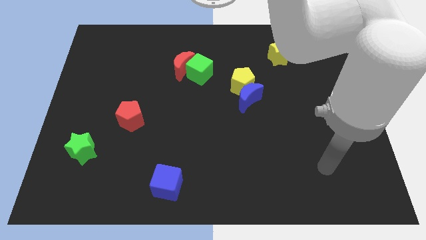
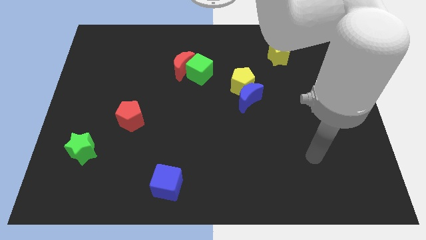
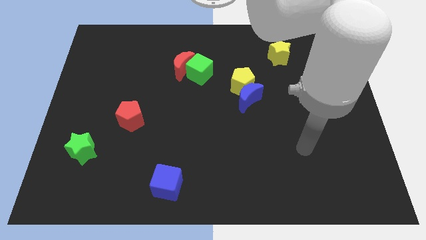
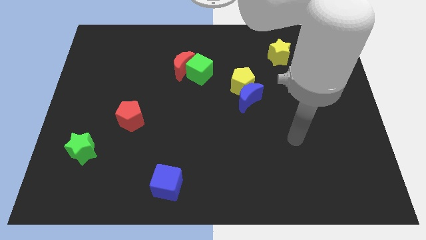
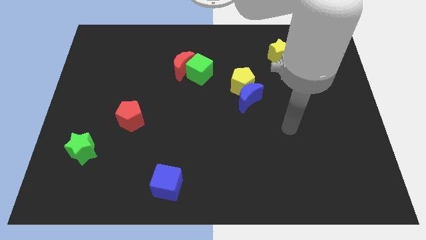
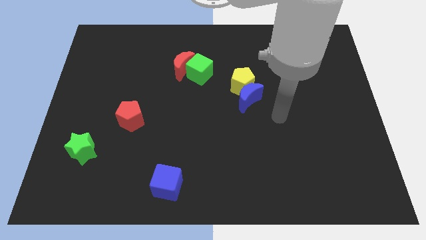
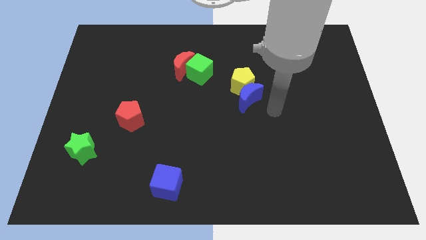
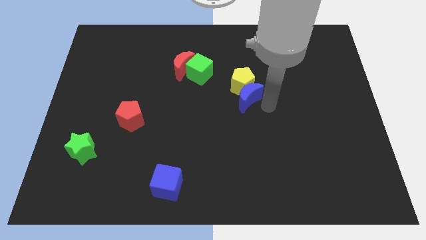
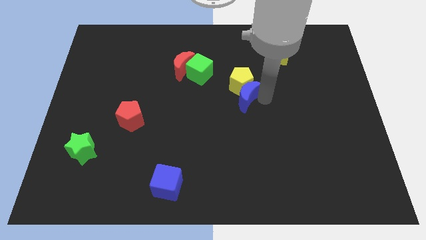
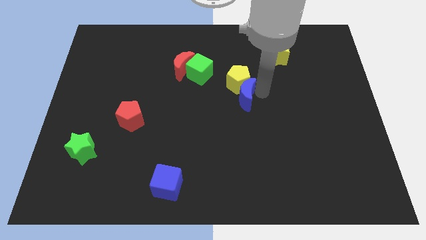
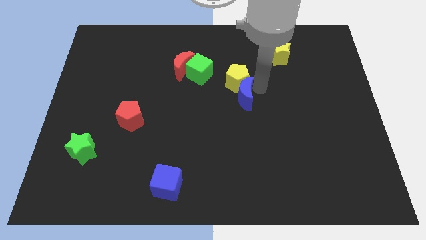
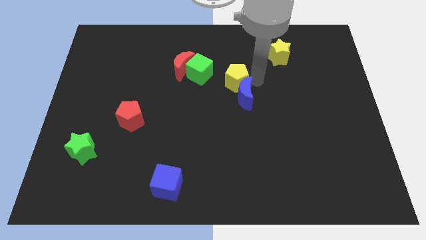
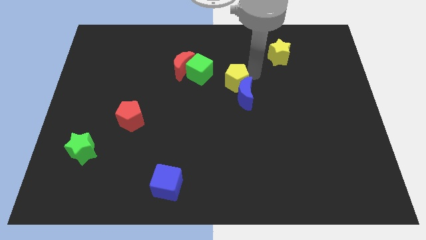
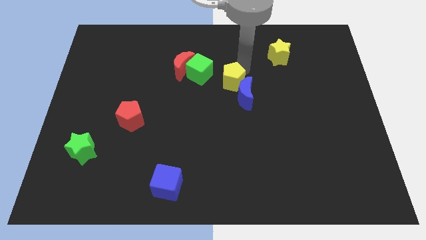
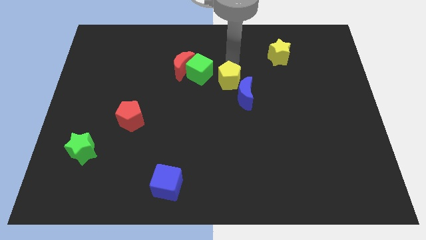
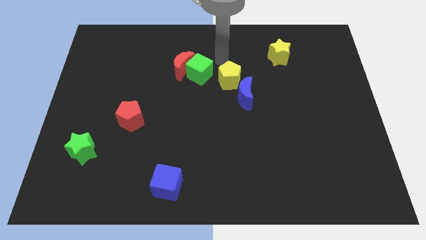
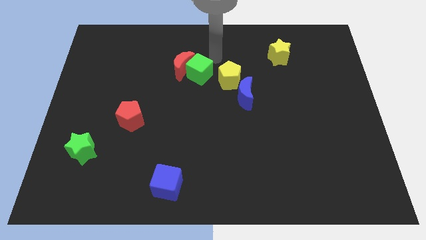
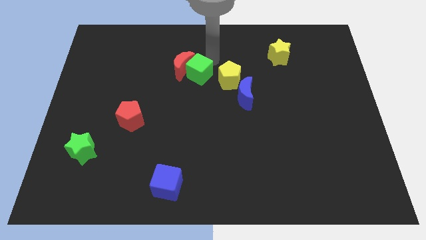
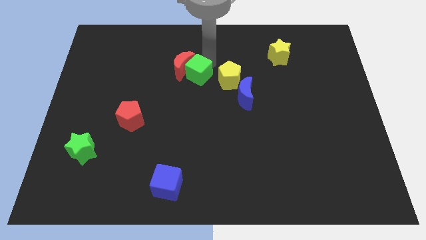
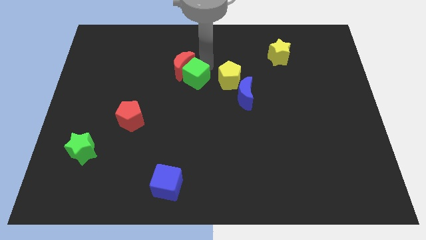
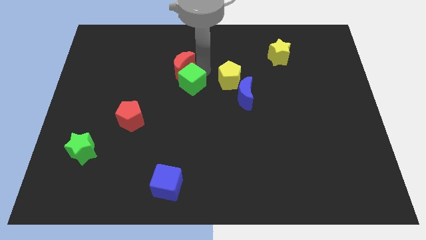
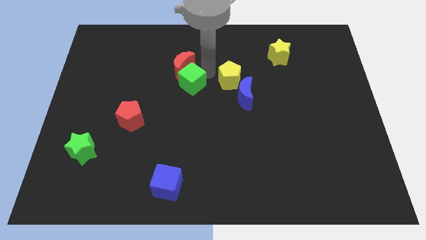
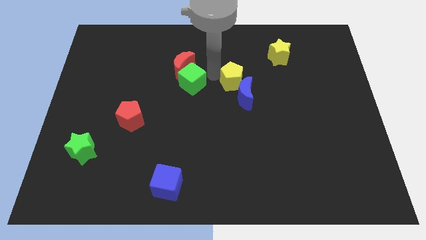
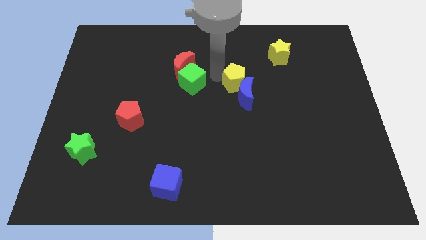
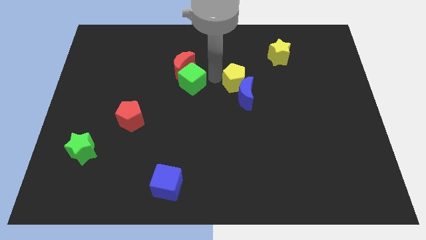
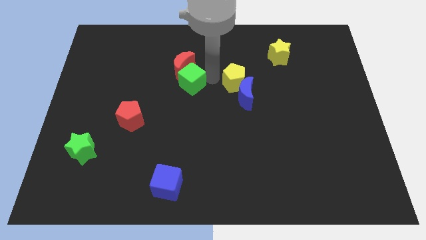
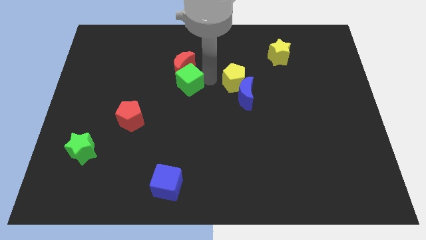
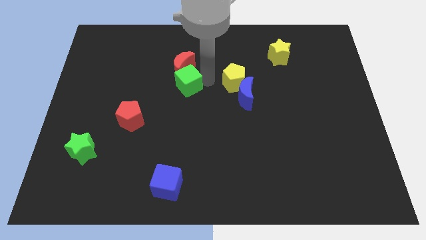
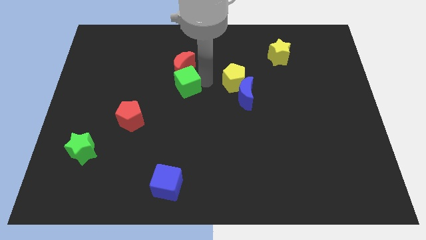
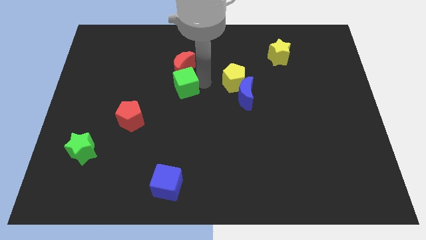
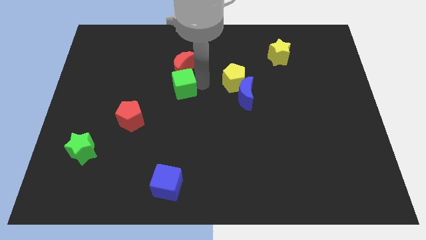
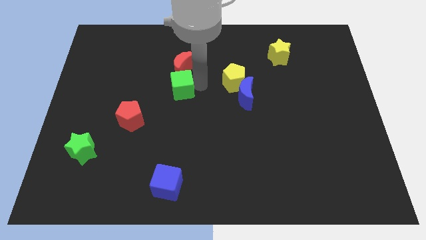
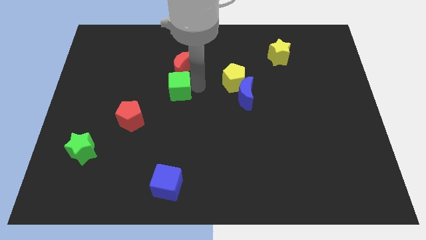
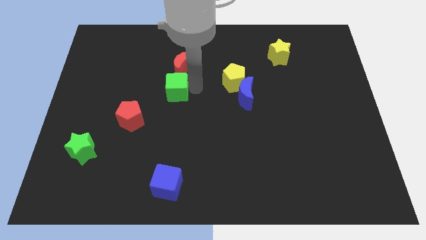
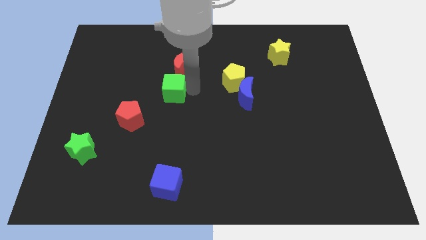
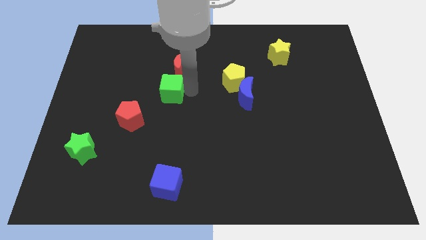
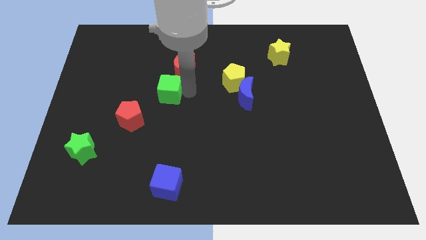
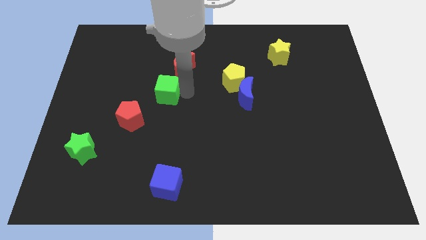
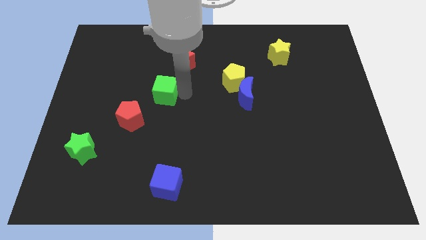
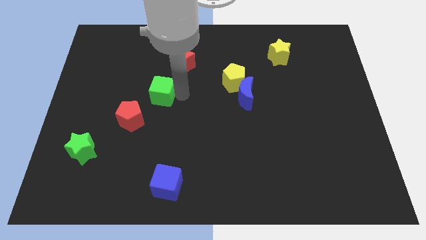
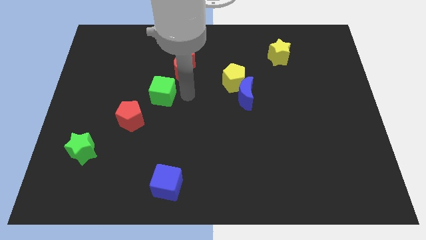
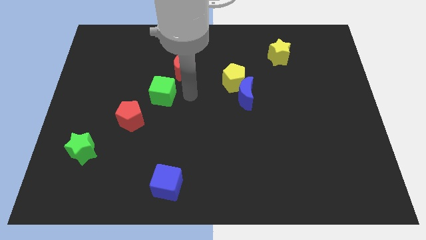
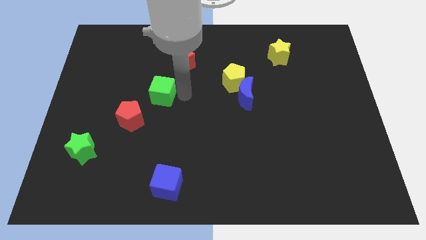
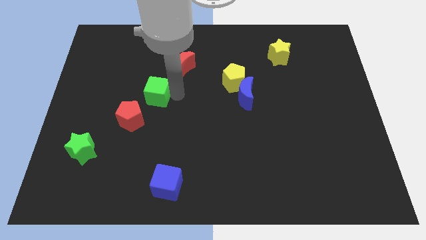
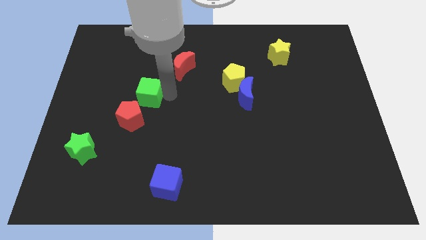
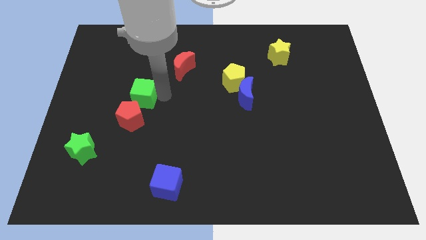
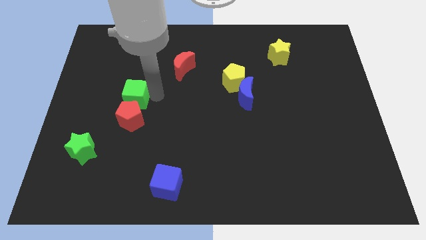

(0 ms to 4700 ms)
put the green cube to the top left side of the red pentagon

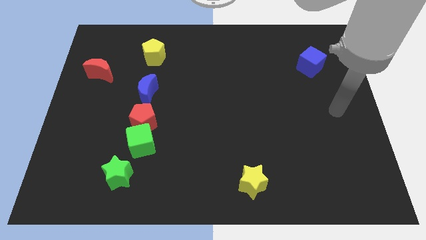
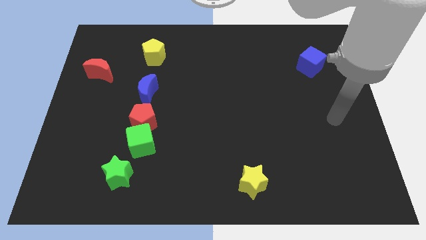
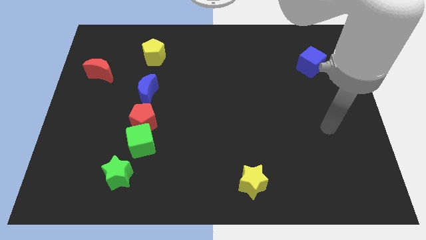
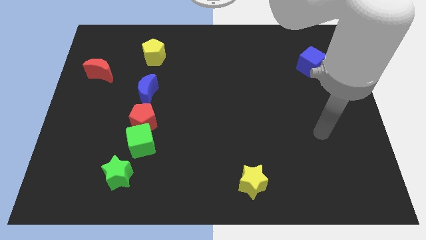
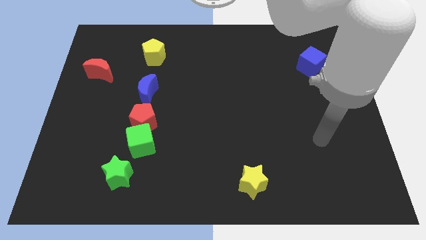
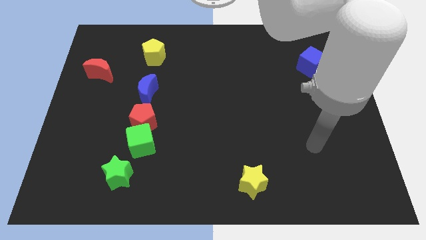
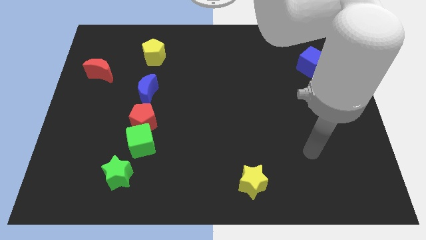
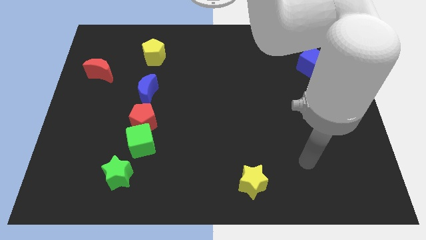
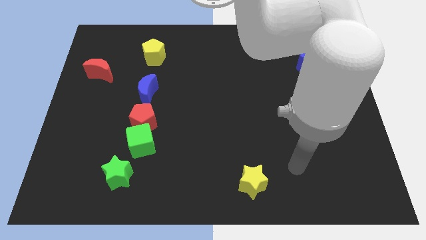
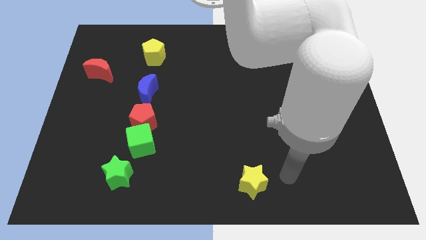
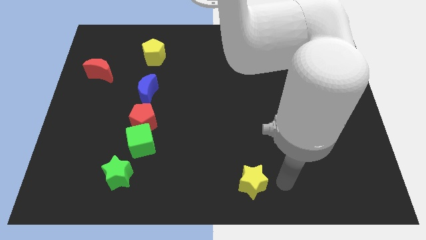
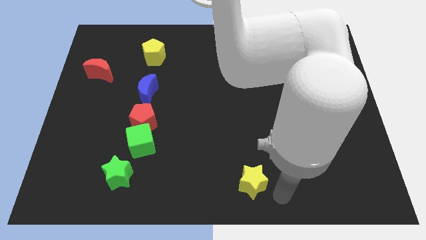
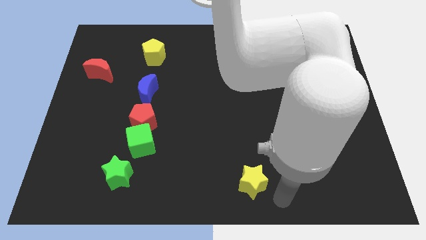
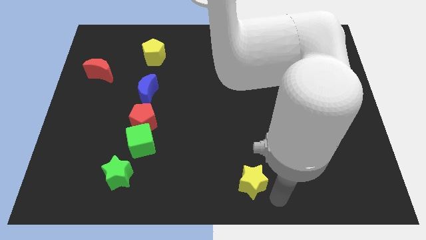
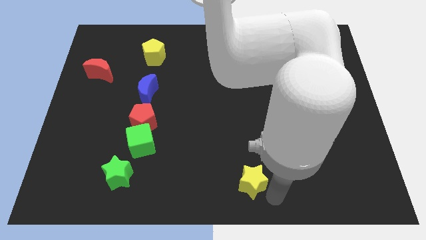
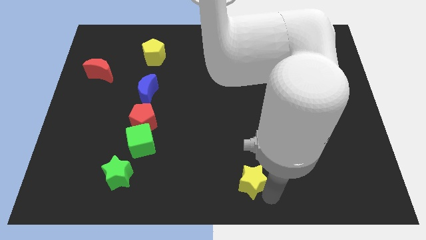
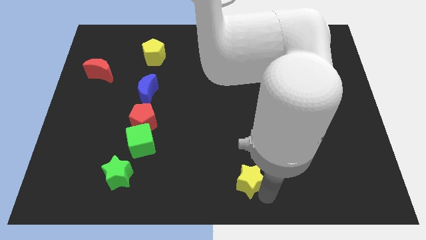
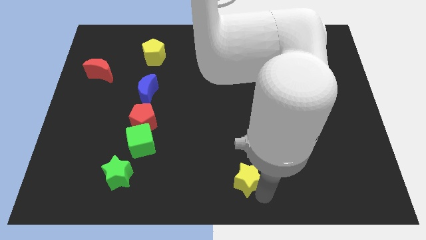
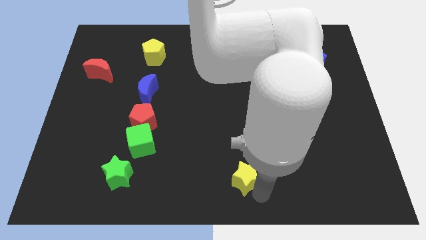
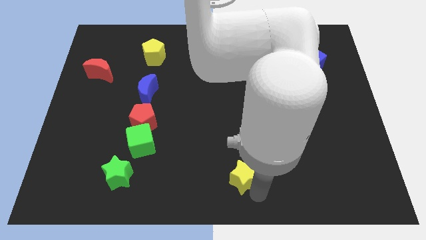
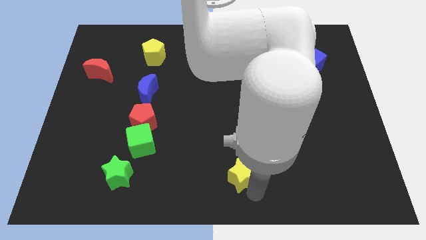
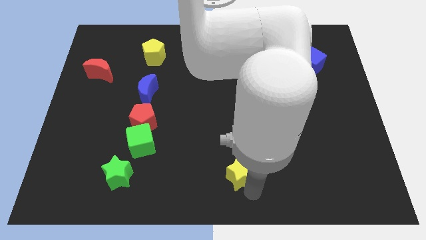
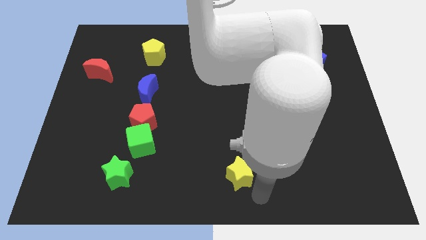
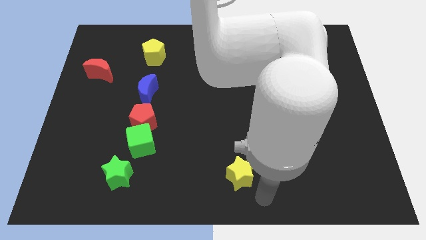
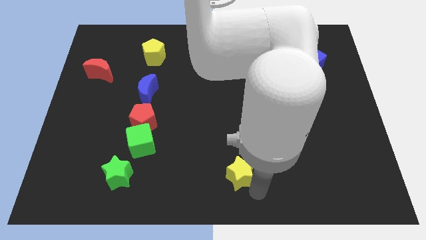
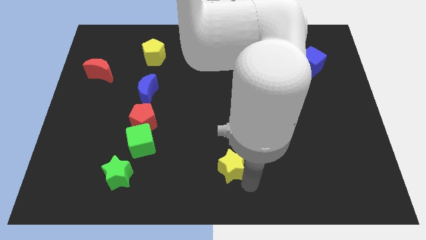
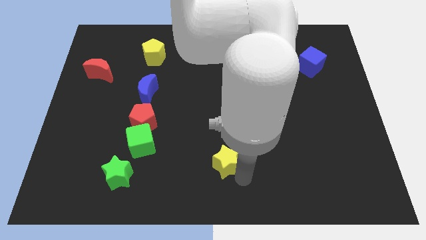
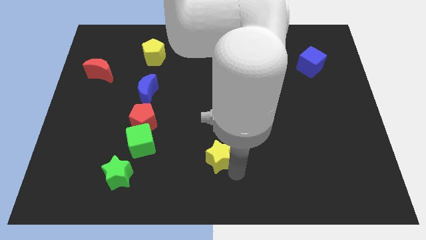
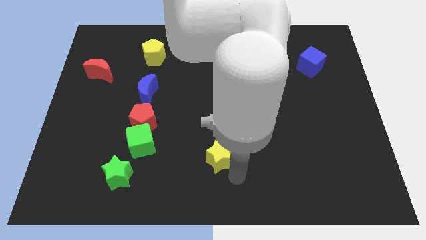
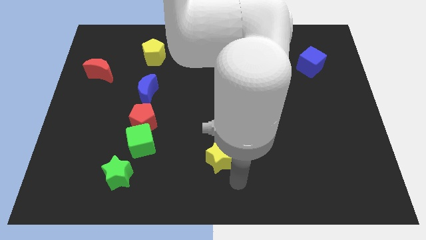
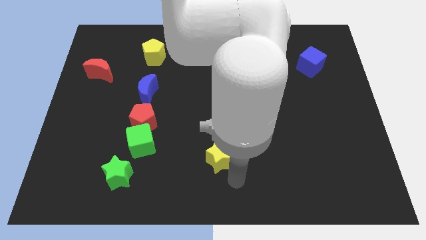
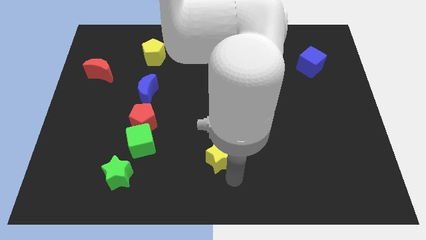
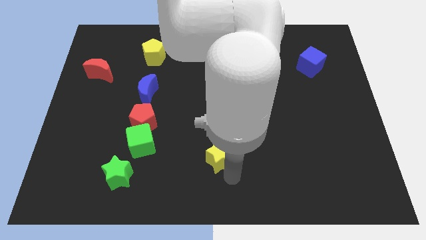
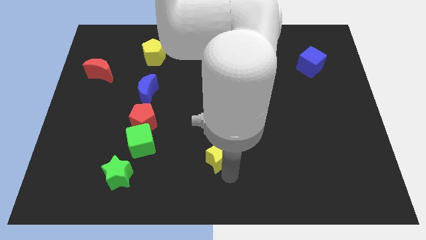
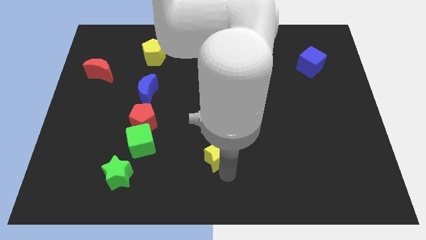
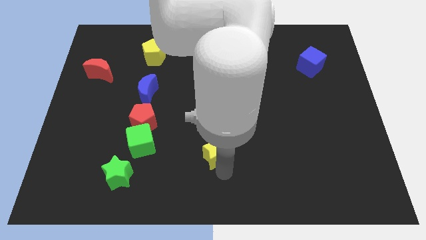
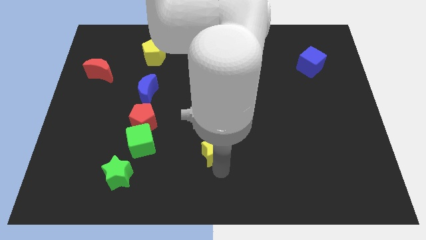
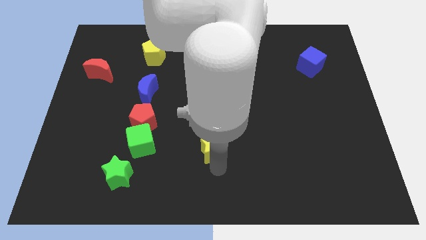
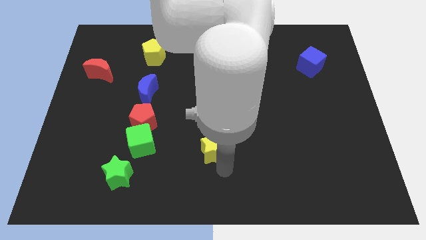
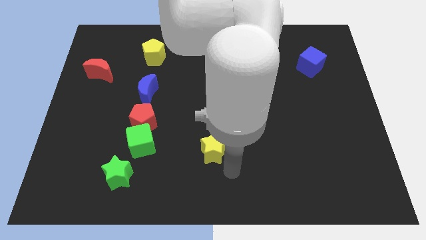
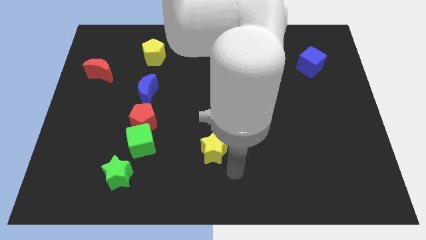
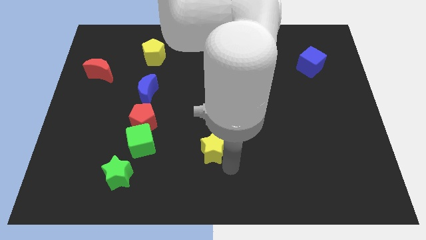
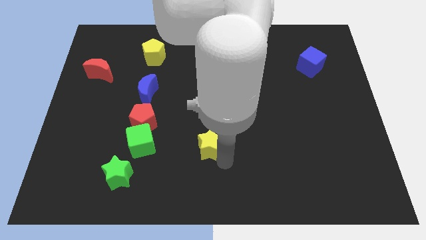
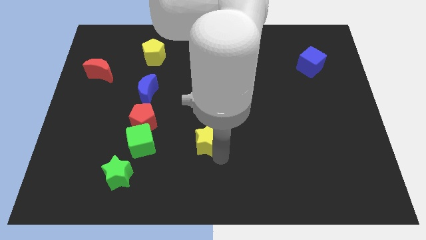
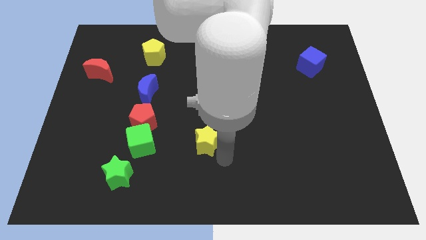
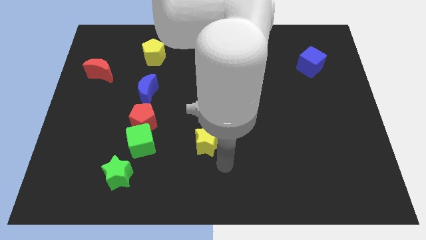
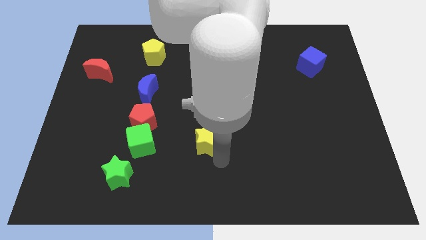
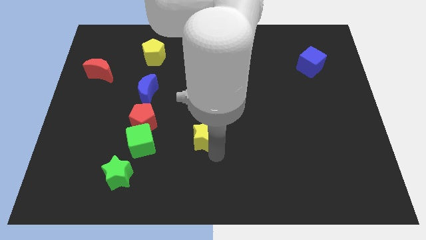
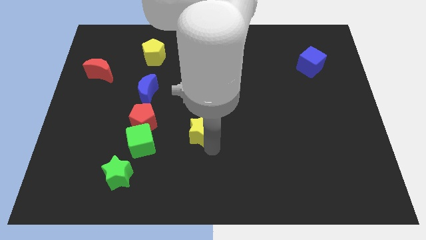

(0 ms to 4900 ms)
push the yellow star to the right side of the red pentagon
